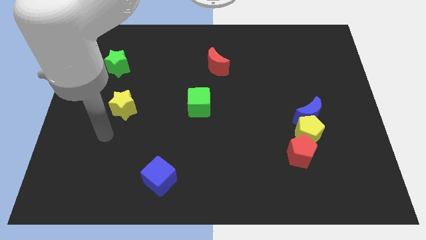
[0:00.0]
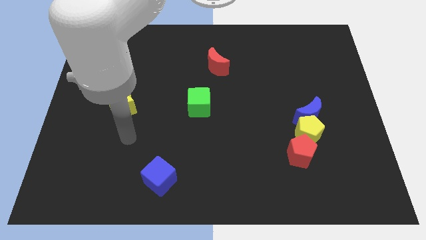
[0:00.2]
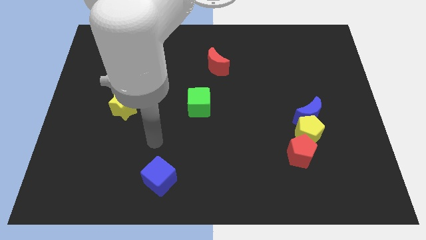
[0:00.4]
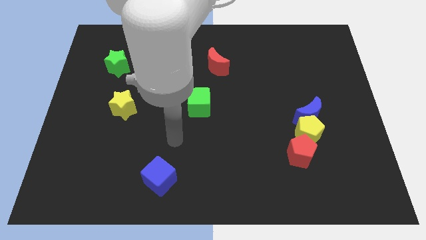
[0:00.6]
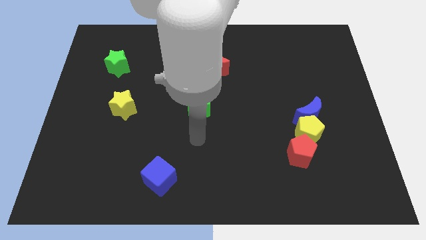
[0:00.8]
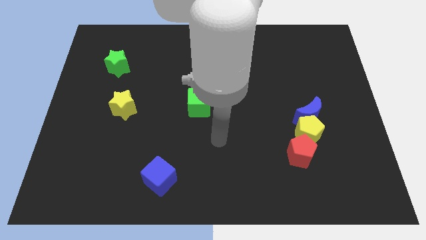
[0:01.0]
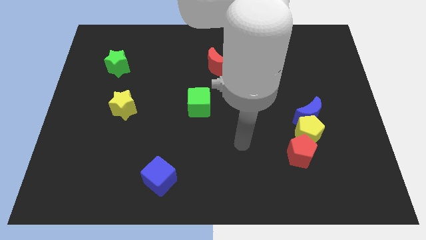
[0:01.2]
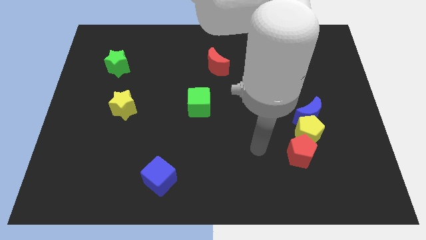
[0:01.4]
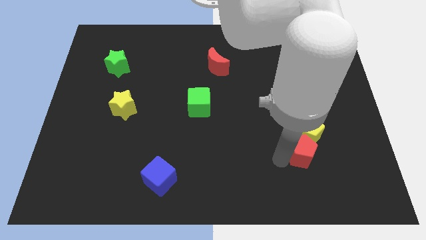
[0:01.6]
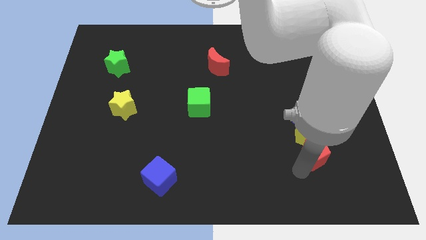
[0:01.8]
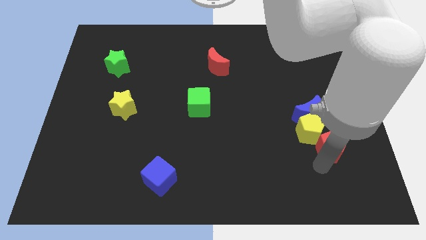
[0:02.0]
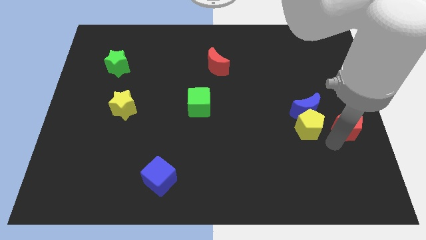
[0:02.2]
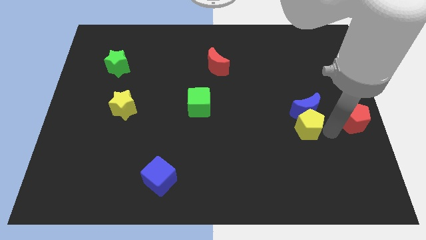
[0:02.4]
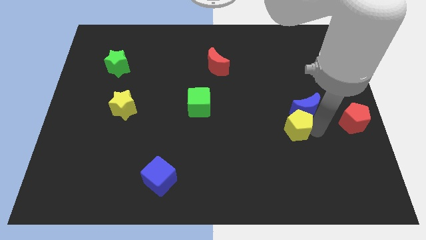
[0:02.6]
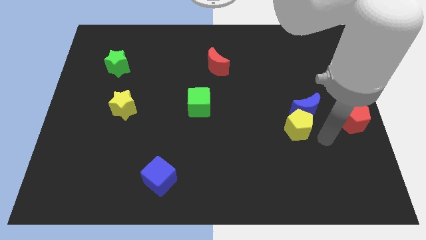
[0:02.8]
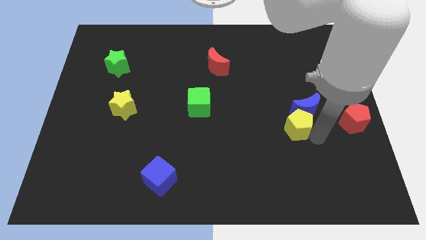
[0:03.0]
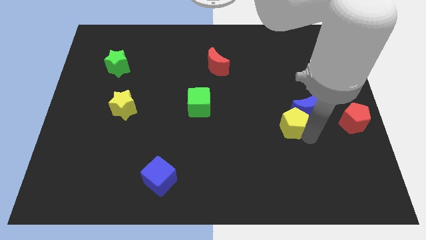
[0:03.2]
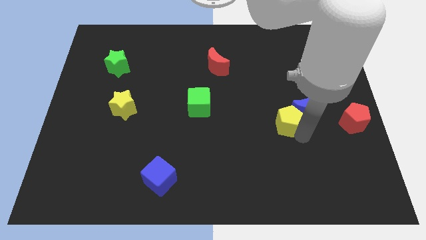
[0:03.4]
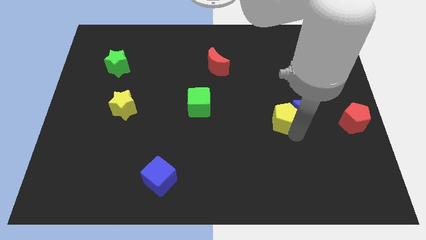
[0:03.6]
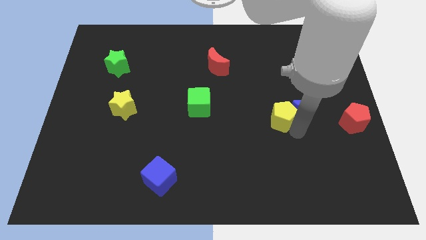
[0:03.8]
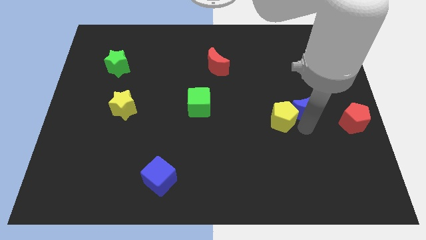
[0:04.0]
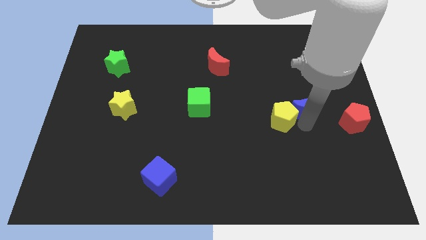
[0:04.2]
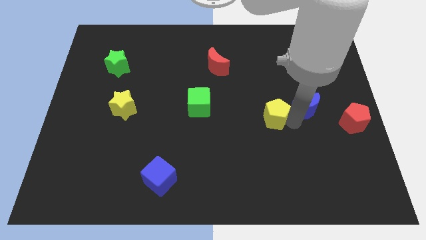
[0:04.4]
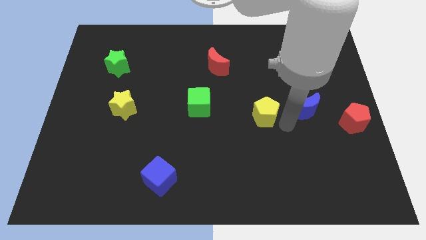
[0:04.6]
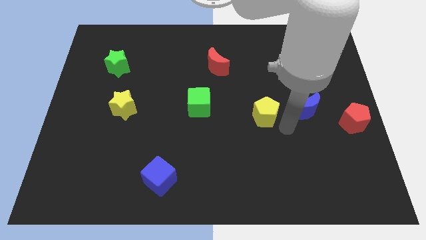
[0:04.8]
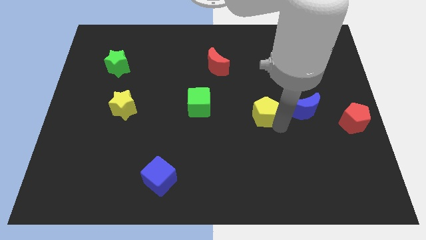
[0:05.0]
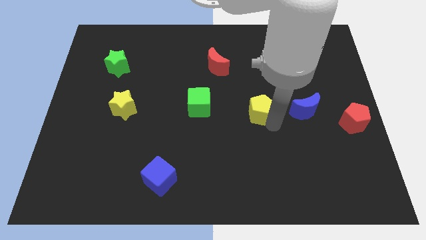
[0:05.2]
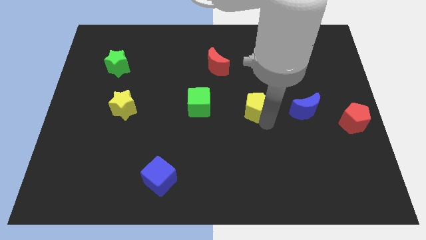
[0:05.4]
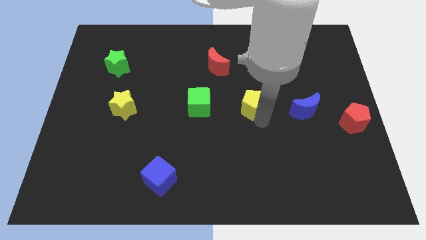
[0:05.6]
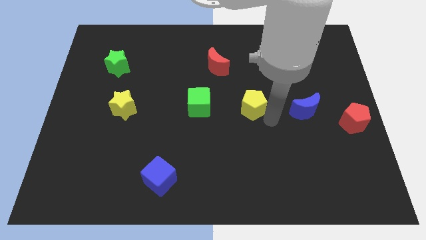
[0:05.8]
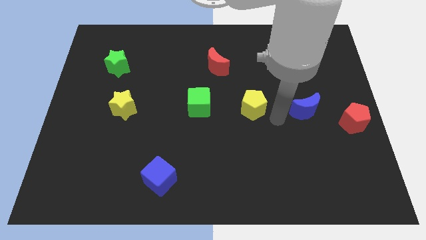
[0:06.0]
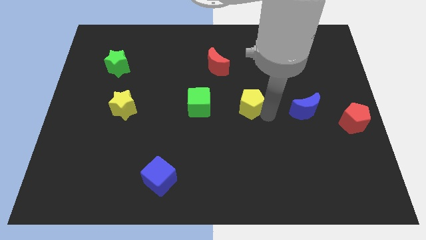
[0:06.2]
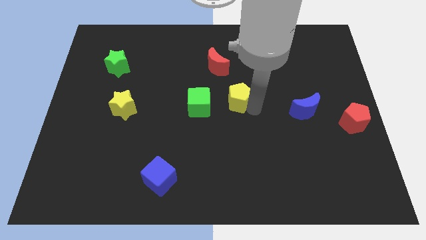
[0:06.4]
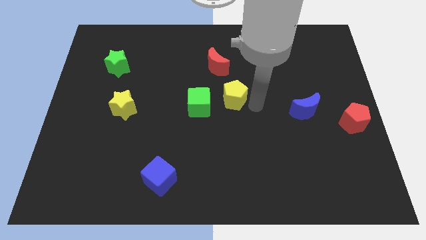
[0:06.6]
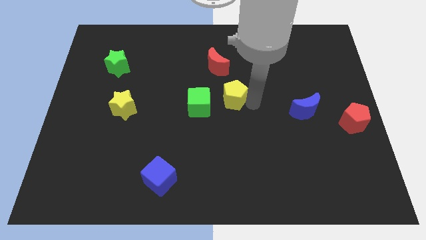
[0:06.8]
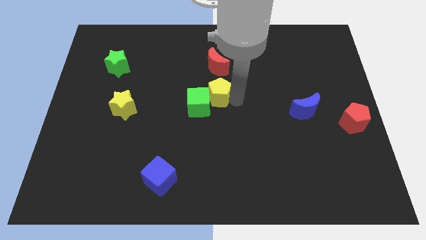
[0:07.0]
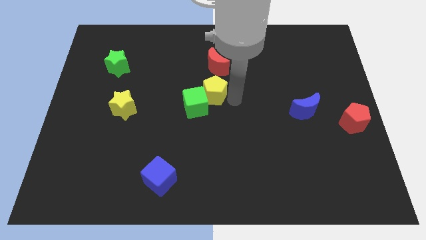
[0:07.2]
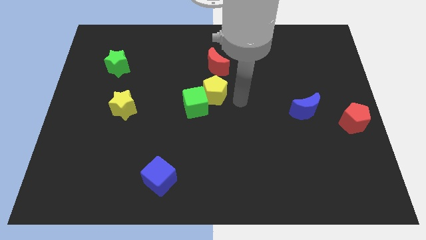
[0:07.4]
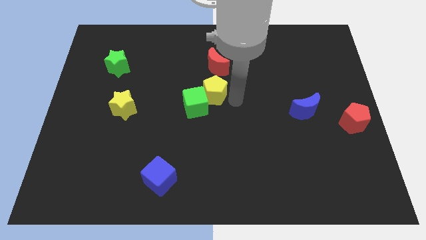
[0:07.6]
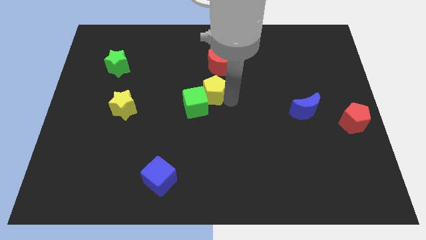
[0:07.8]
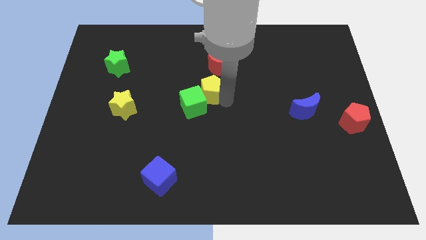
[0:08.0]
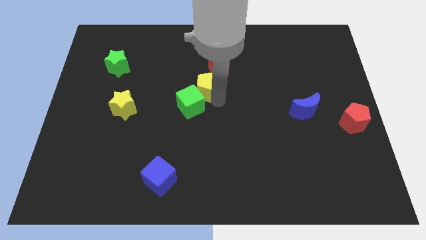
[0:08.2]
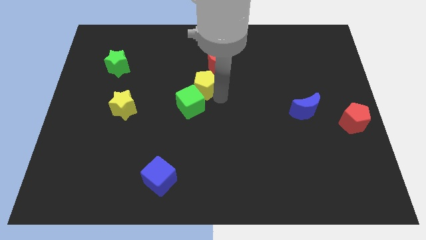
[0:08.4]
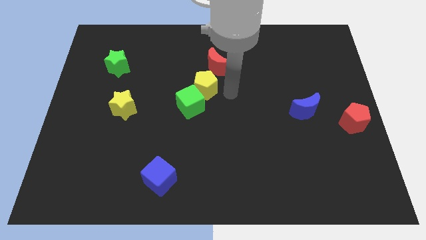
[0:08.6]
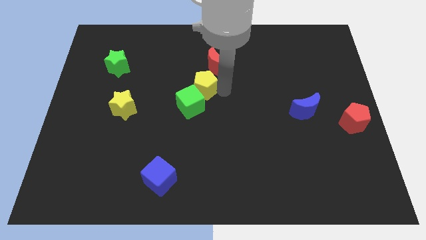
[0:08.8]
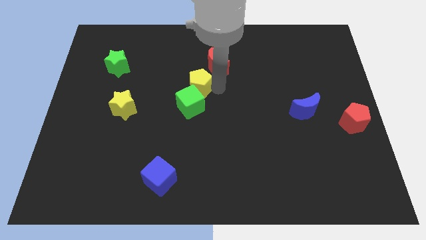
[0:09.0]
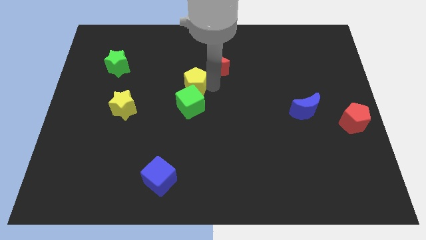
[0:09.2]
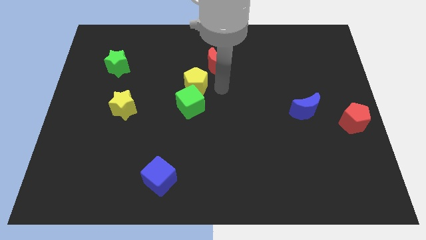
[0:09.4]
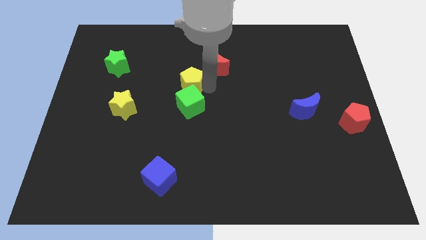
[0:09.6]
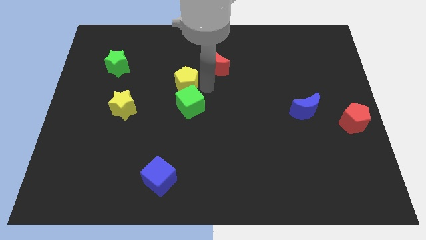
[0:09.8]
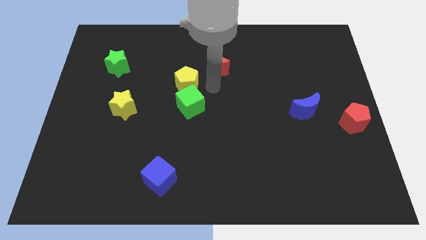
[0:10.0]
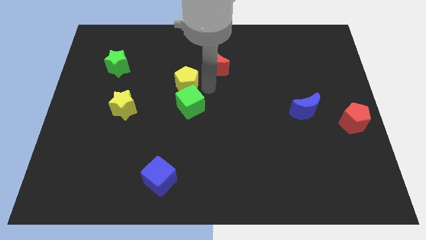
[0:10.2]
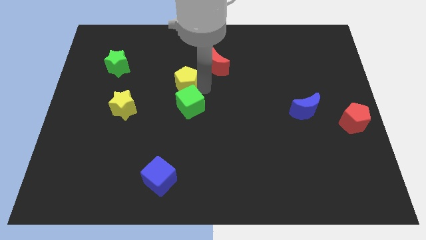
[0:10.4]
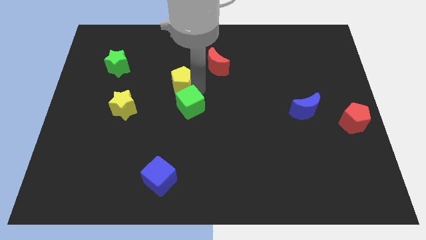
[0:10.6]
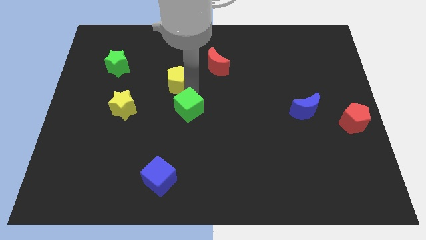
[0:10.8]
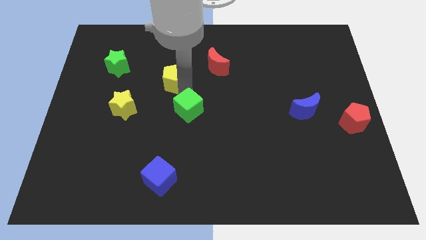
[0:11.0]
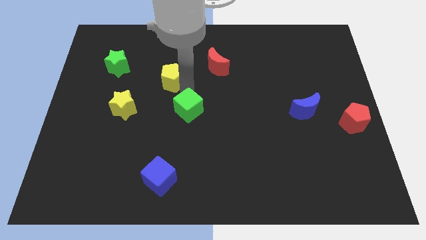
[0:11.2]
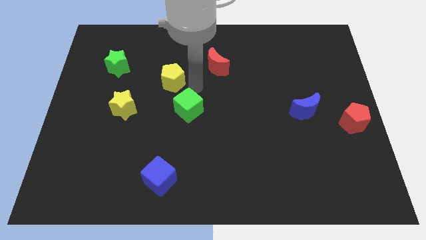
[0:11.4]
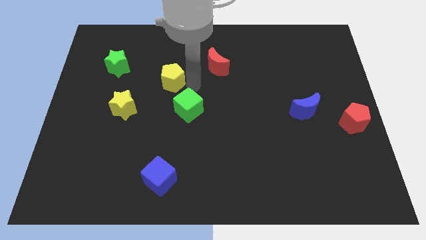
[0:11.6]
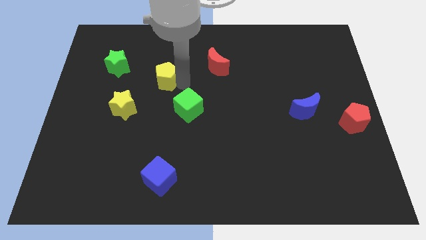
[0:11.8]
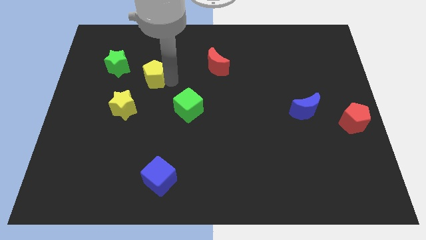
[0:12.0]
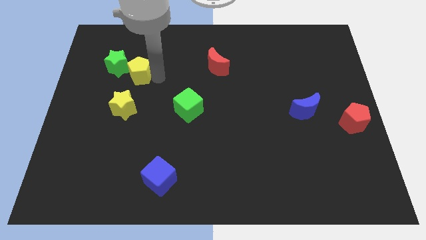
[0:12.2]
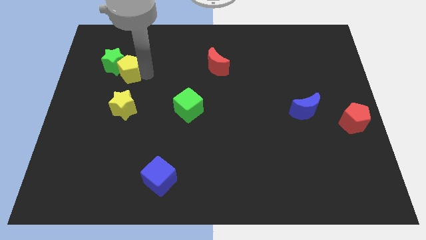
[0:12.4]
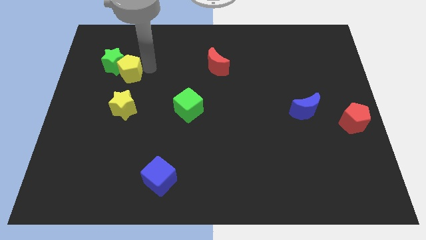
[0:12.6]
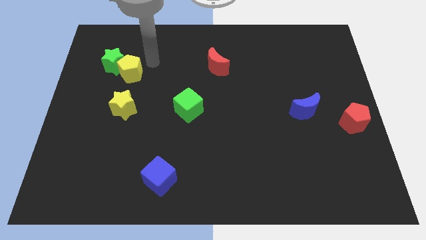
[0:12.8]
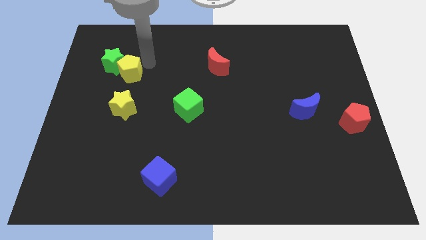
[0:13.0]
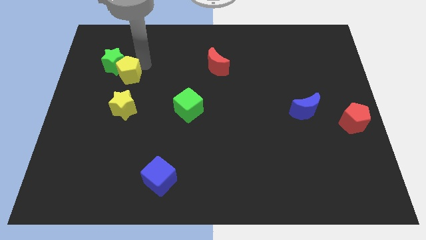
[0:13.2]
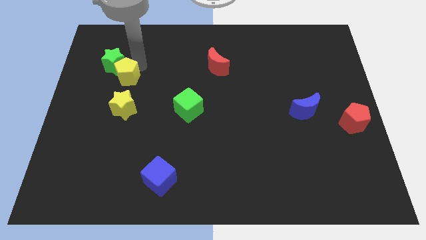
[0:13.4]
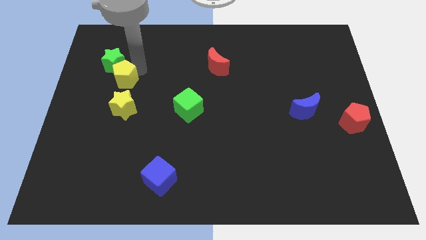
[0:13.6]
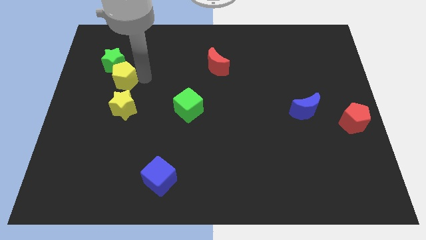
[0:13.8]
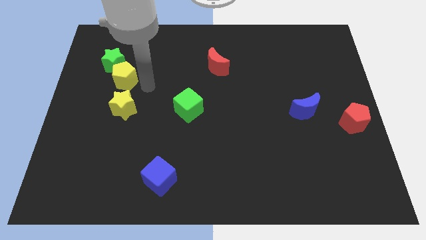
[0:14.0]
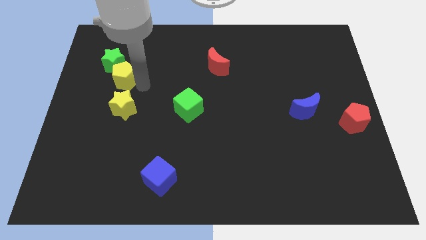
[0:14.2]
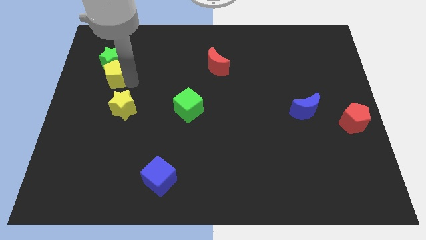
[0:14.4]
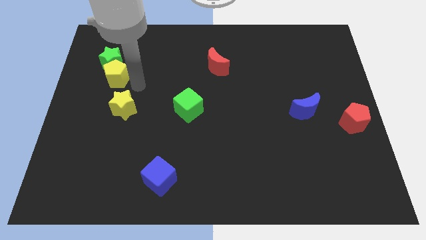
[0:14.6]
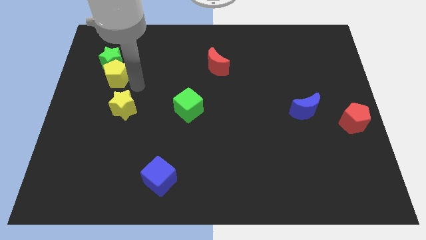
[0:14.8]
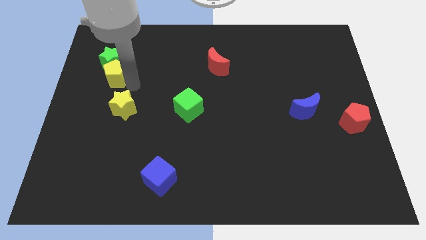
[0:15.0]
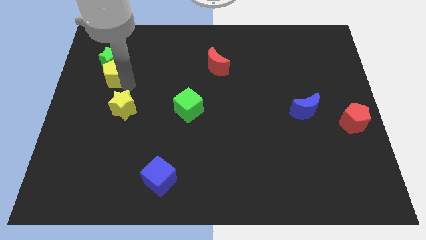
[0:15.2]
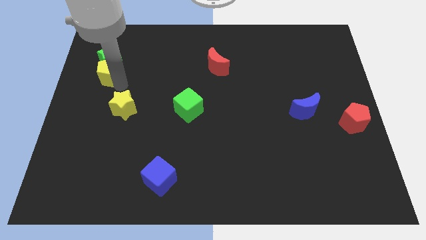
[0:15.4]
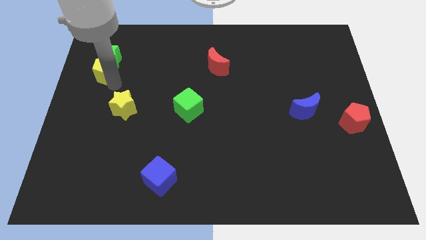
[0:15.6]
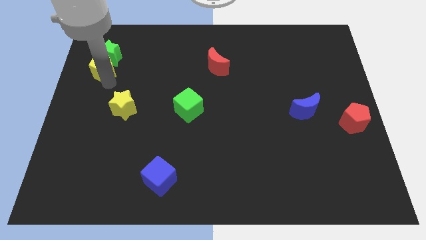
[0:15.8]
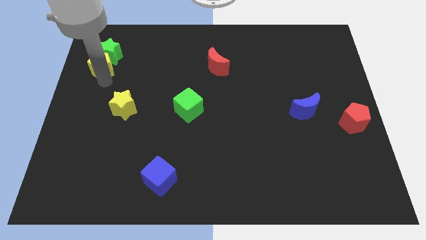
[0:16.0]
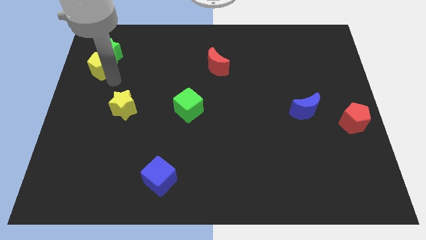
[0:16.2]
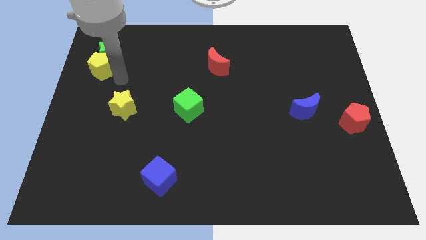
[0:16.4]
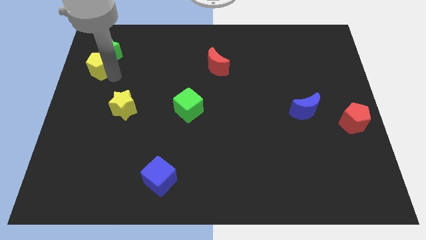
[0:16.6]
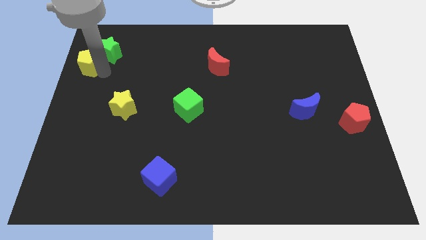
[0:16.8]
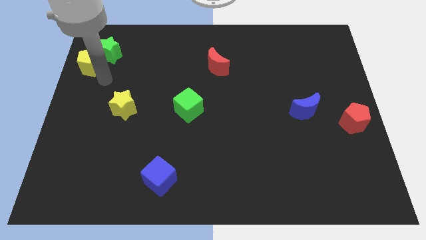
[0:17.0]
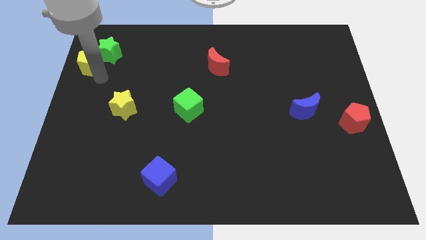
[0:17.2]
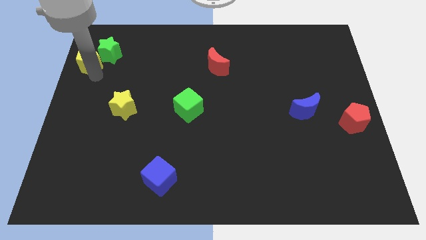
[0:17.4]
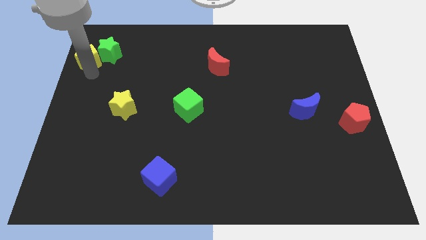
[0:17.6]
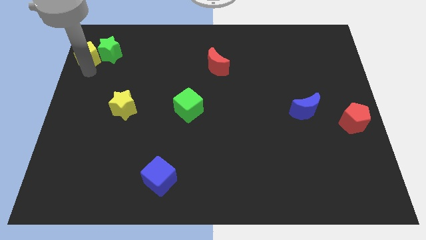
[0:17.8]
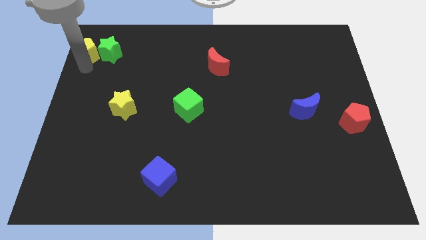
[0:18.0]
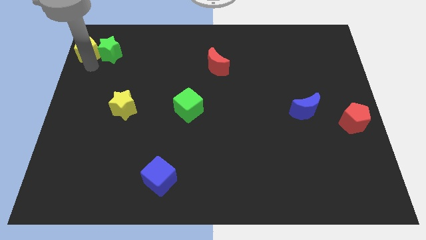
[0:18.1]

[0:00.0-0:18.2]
push the yellow pentagon to the top left corner
